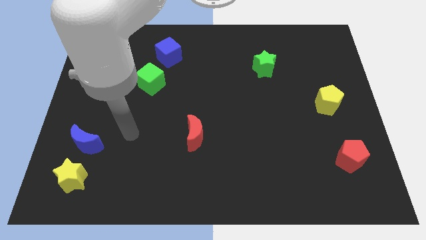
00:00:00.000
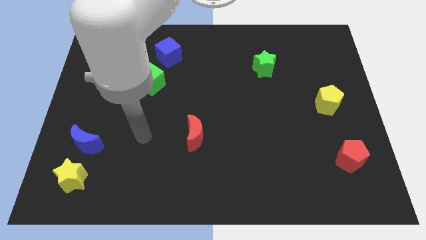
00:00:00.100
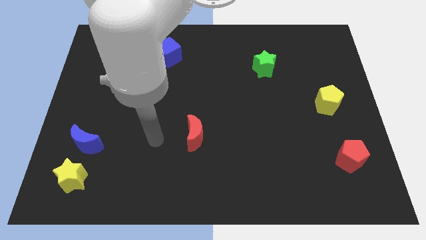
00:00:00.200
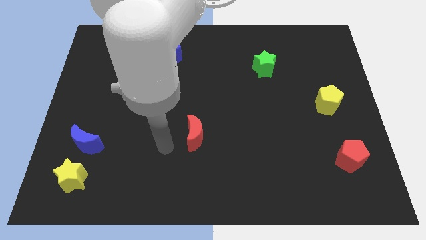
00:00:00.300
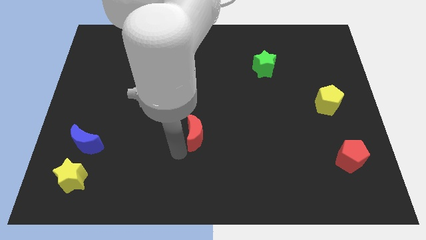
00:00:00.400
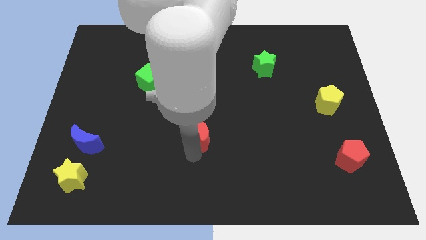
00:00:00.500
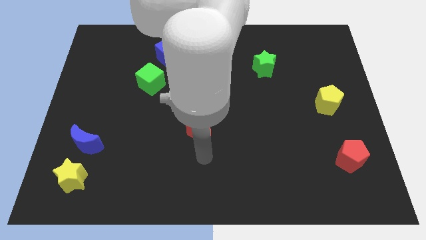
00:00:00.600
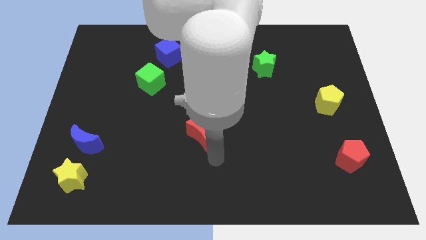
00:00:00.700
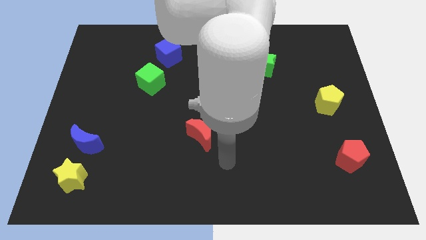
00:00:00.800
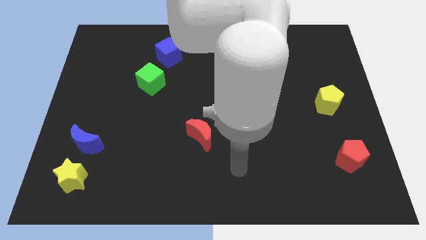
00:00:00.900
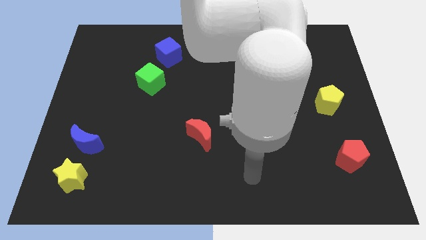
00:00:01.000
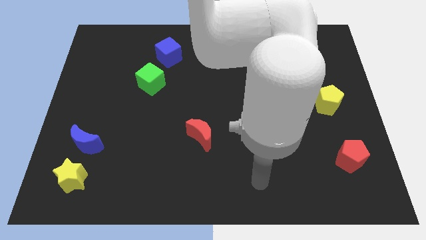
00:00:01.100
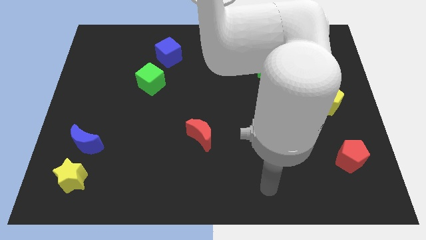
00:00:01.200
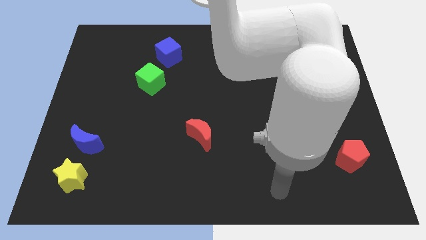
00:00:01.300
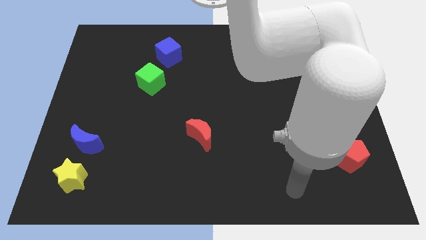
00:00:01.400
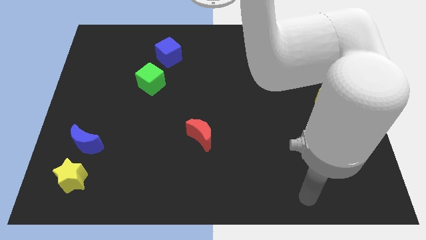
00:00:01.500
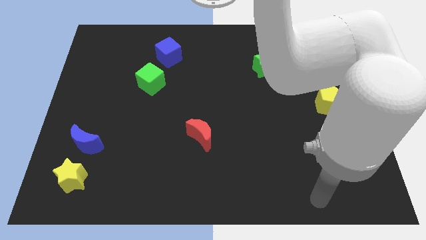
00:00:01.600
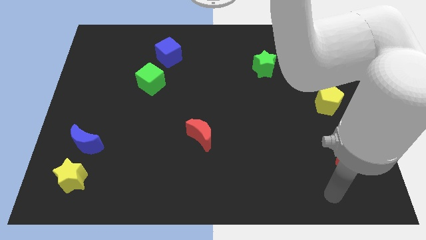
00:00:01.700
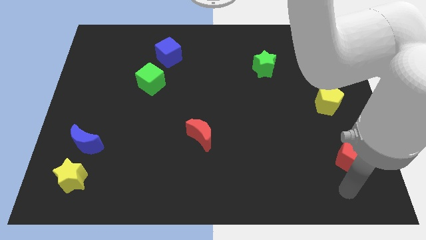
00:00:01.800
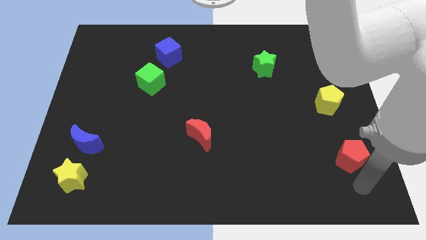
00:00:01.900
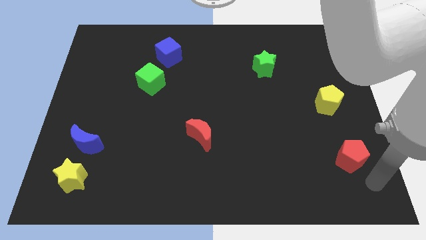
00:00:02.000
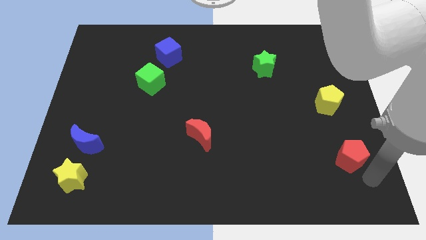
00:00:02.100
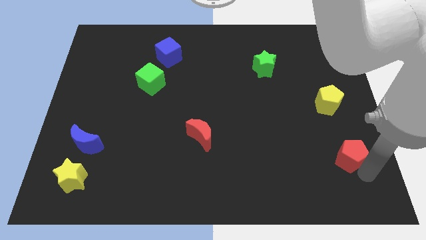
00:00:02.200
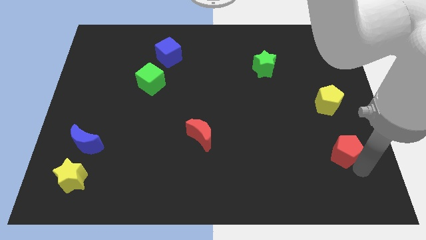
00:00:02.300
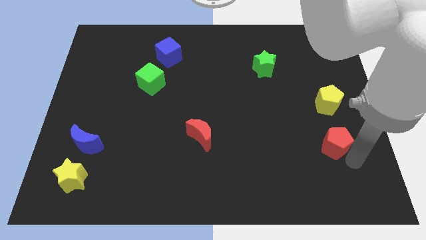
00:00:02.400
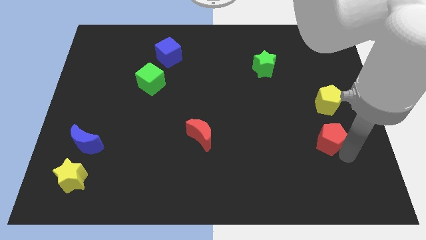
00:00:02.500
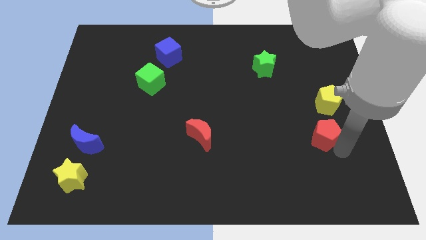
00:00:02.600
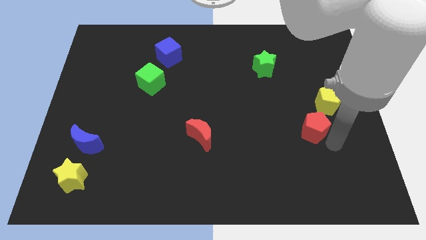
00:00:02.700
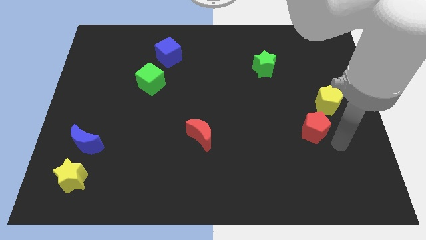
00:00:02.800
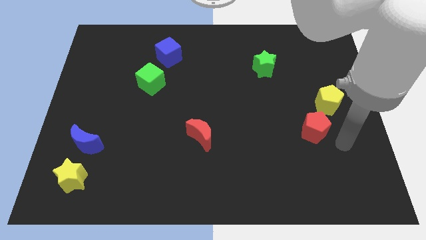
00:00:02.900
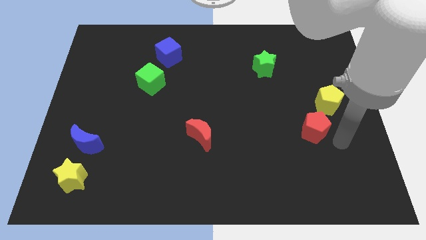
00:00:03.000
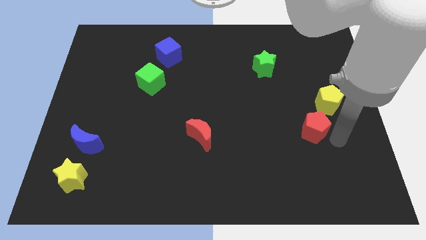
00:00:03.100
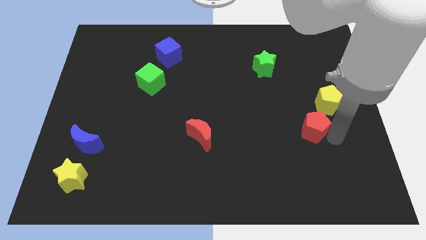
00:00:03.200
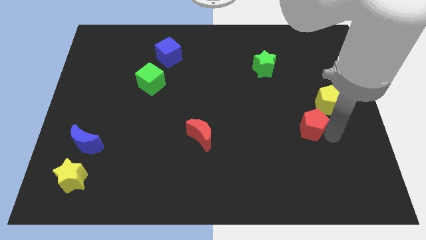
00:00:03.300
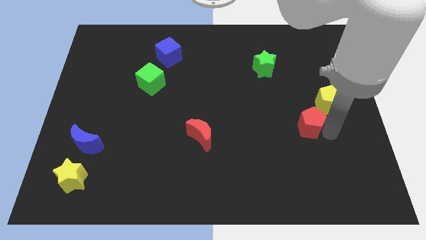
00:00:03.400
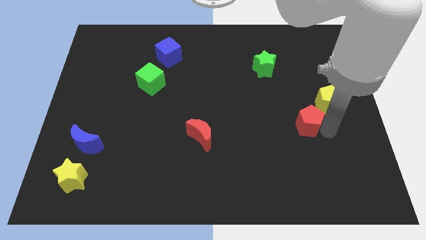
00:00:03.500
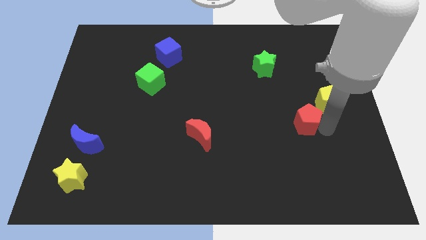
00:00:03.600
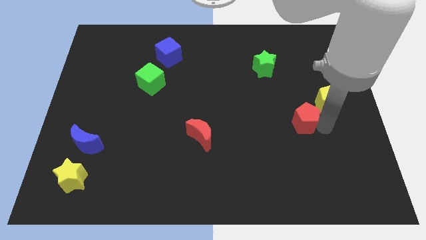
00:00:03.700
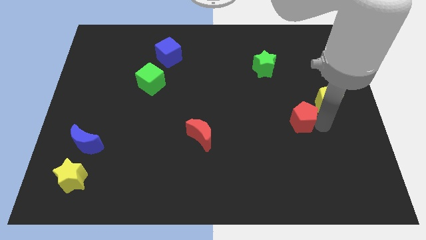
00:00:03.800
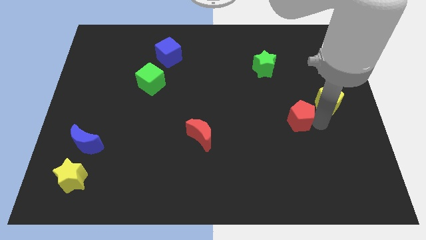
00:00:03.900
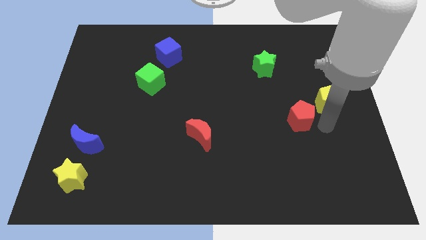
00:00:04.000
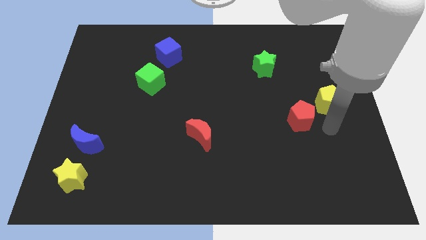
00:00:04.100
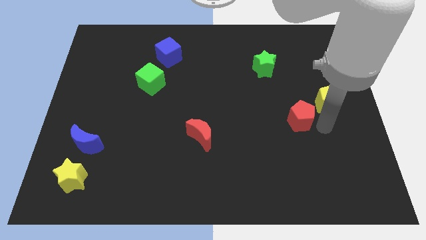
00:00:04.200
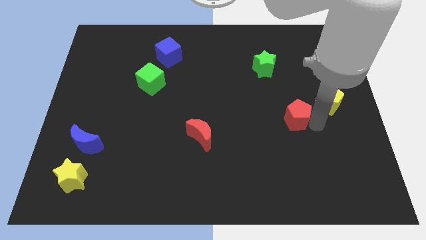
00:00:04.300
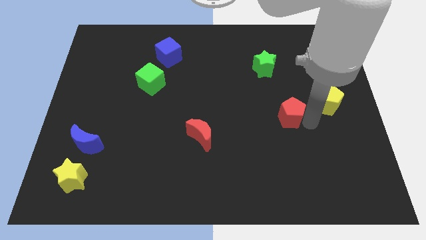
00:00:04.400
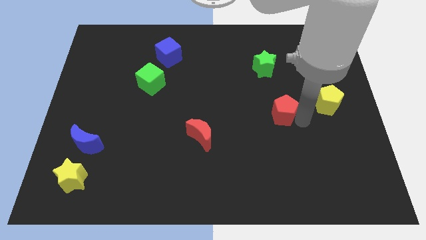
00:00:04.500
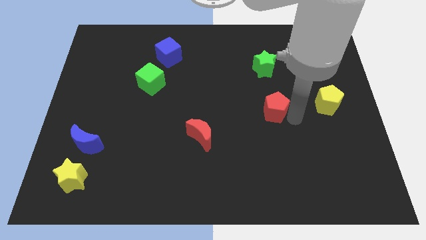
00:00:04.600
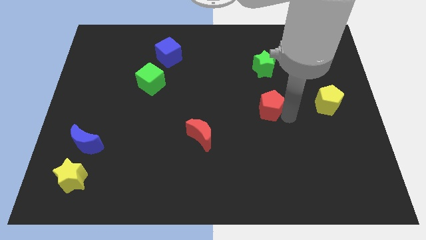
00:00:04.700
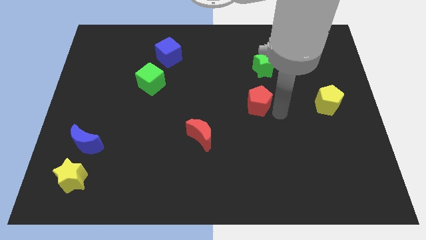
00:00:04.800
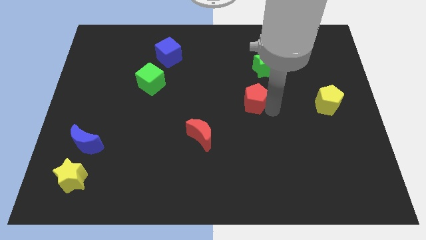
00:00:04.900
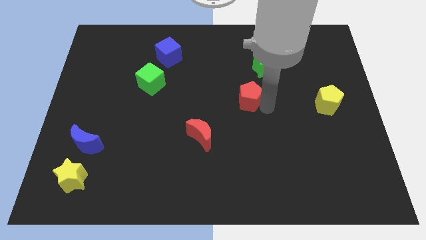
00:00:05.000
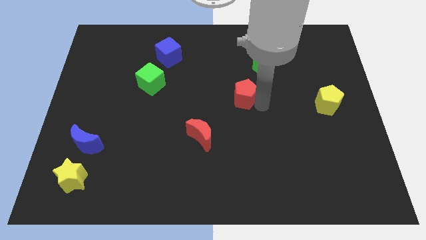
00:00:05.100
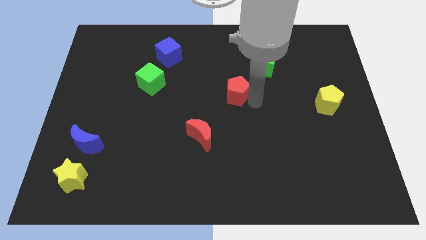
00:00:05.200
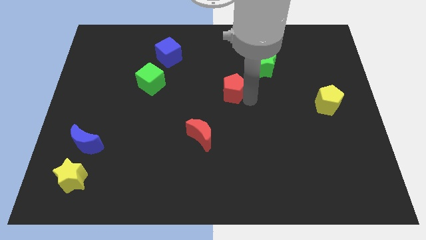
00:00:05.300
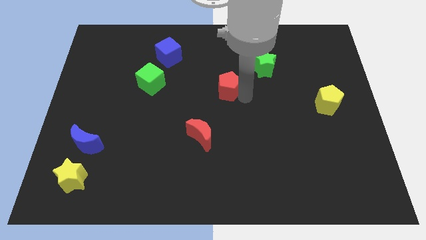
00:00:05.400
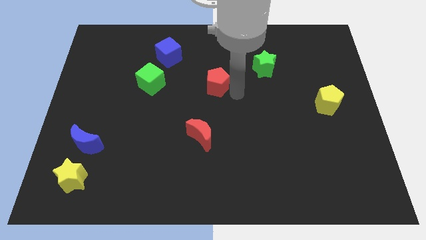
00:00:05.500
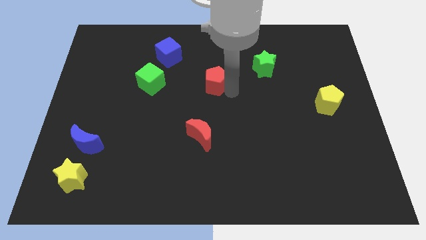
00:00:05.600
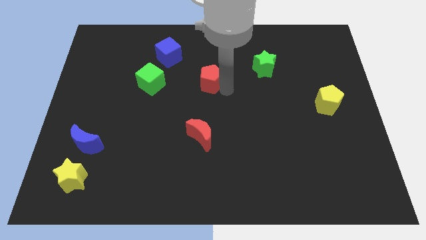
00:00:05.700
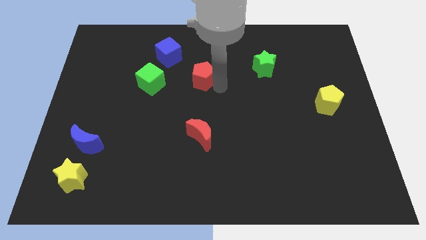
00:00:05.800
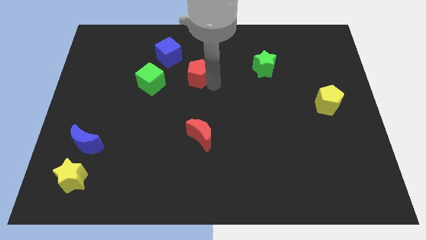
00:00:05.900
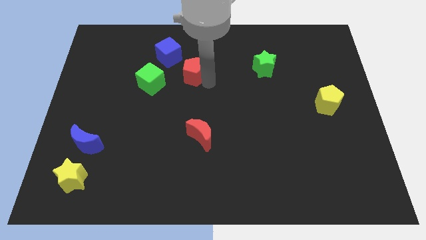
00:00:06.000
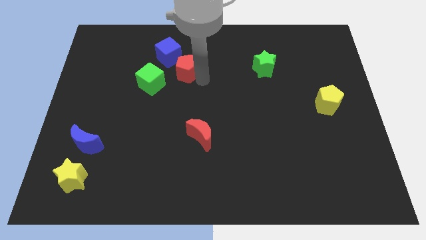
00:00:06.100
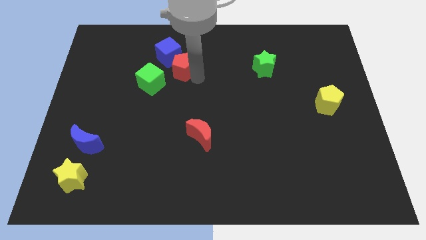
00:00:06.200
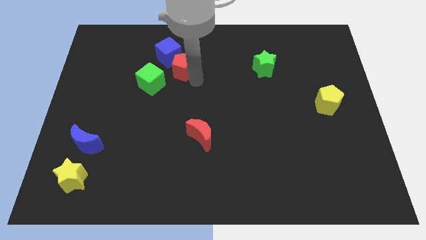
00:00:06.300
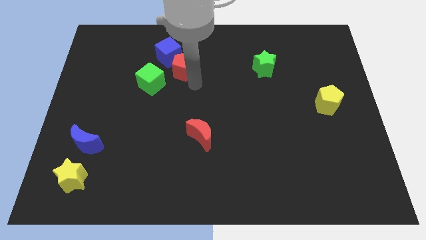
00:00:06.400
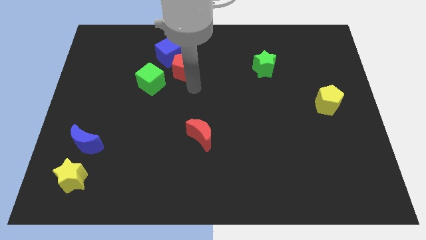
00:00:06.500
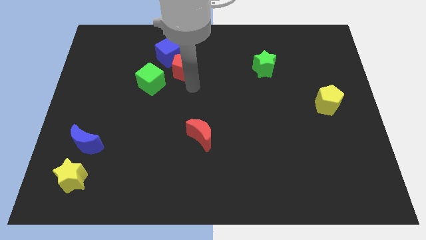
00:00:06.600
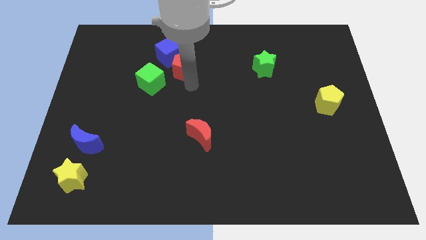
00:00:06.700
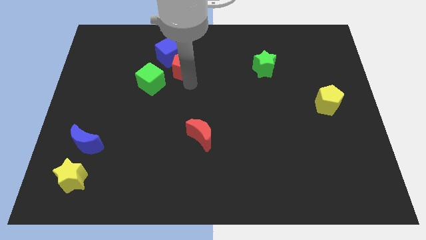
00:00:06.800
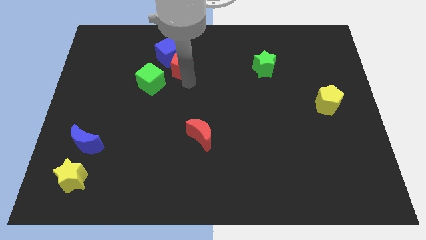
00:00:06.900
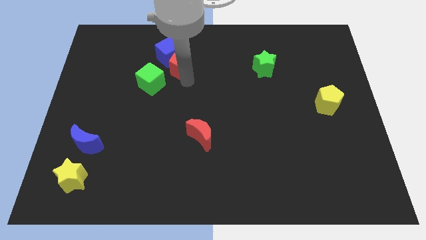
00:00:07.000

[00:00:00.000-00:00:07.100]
push the red pentagon next to the blue cube
